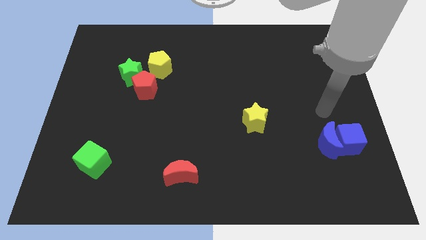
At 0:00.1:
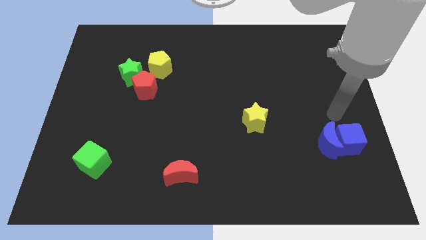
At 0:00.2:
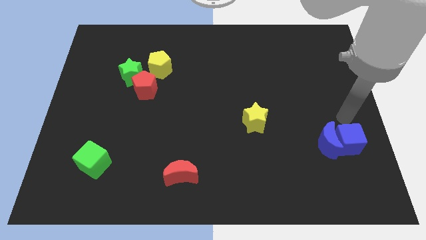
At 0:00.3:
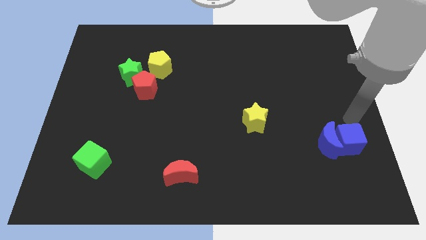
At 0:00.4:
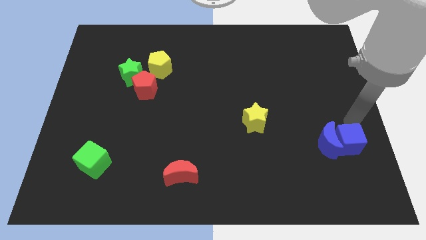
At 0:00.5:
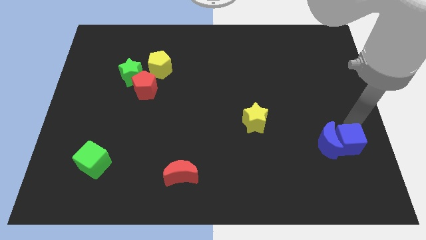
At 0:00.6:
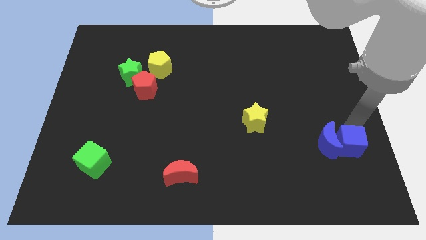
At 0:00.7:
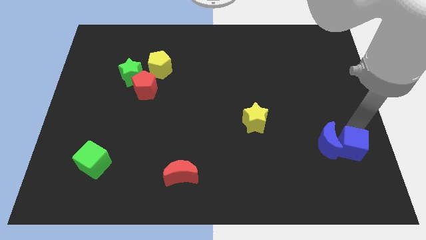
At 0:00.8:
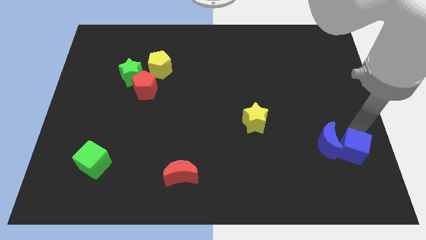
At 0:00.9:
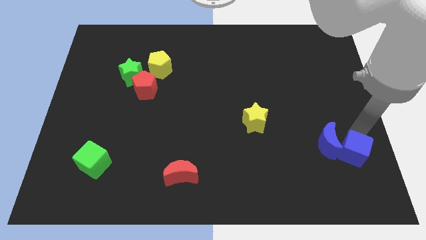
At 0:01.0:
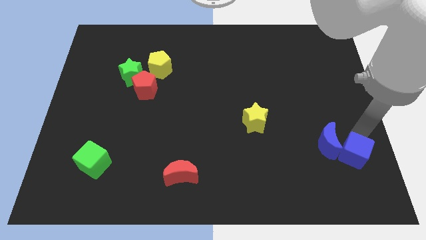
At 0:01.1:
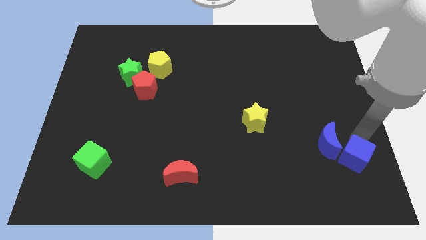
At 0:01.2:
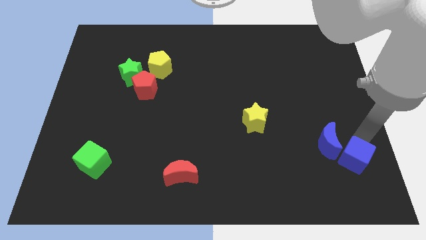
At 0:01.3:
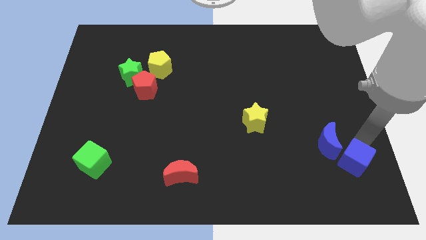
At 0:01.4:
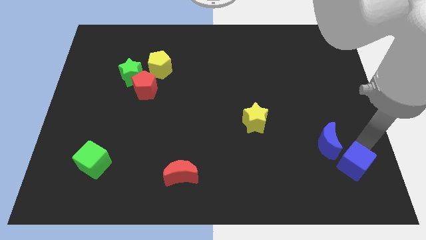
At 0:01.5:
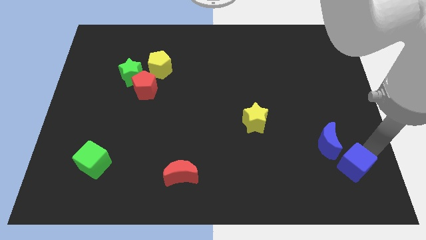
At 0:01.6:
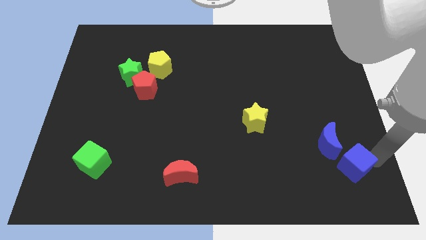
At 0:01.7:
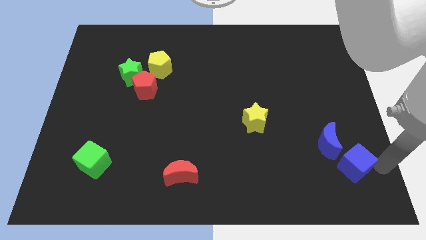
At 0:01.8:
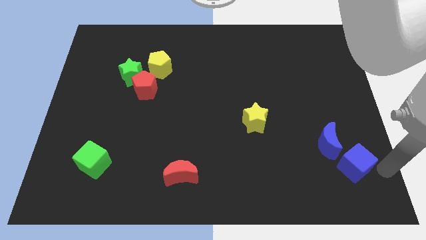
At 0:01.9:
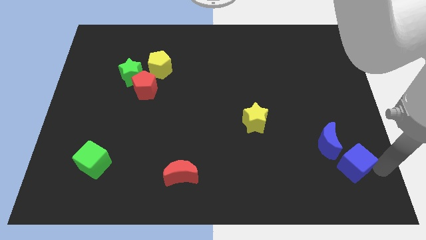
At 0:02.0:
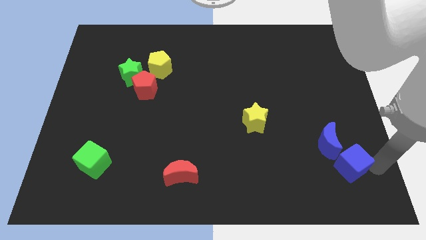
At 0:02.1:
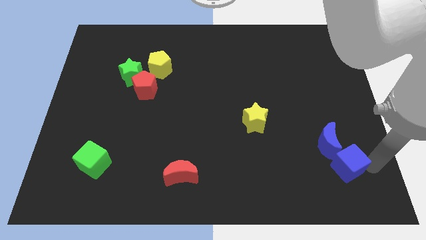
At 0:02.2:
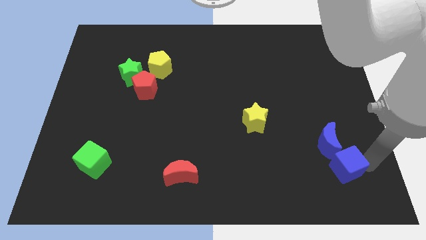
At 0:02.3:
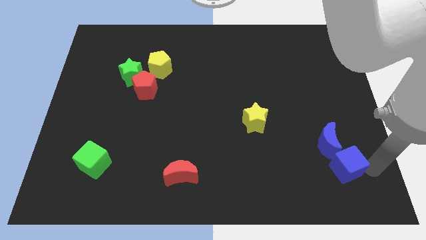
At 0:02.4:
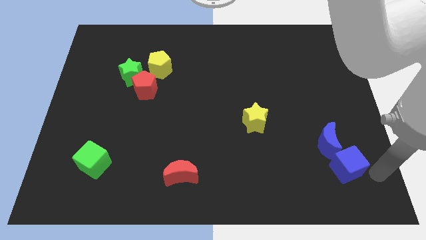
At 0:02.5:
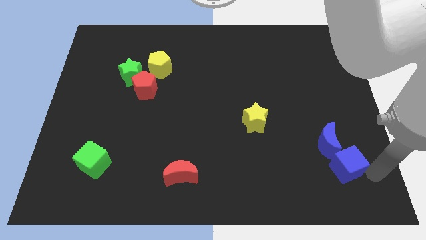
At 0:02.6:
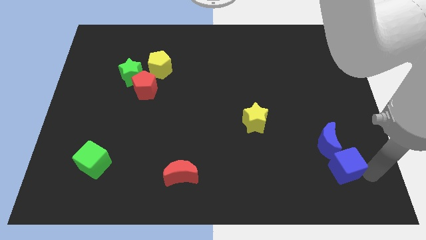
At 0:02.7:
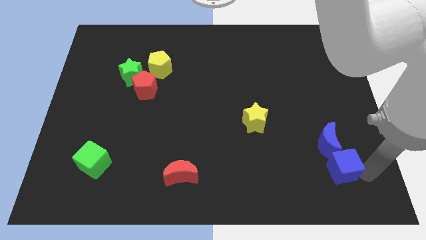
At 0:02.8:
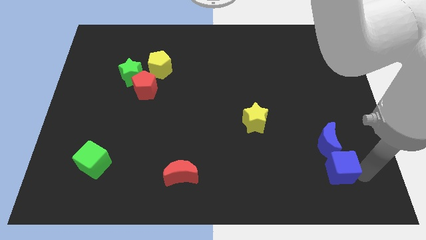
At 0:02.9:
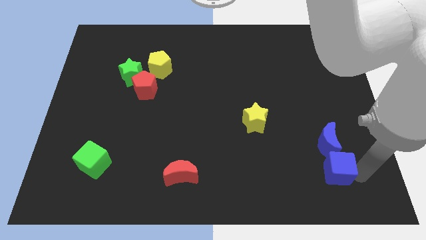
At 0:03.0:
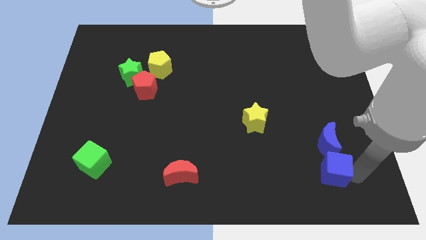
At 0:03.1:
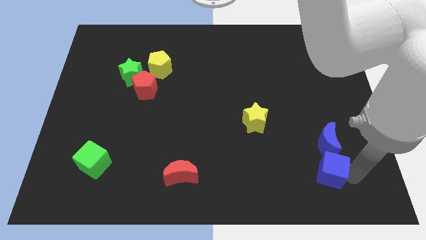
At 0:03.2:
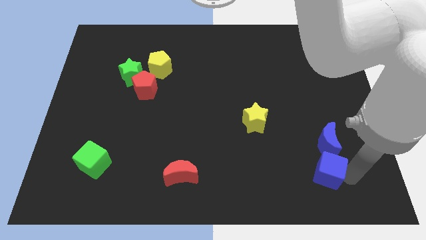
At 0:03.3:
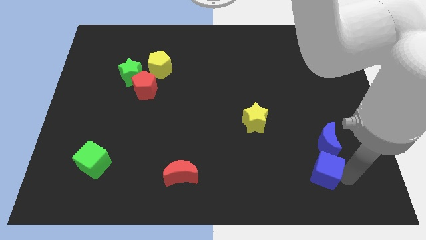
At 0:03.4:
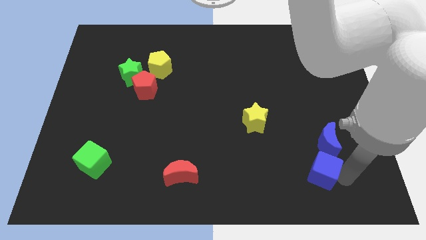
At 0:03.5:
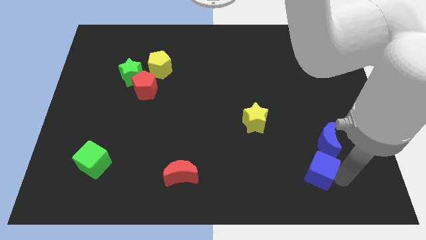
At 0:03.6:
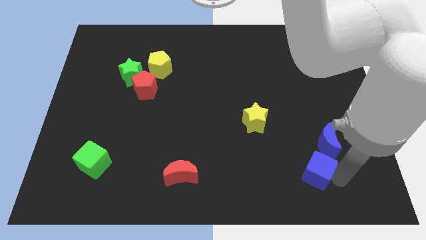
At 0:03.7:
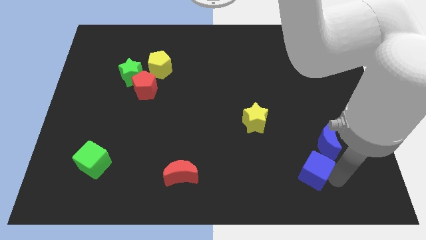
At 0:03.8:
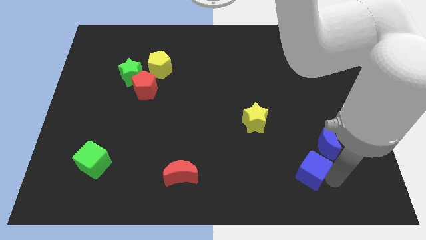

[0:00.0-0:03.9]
slightly push the blue cube to the left

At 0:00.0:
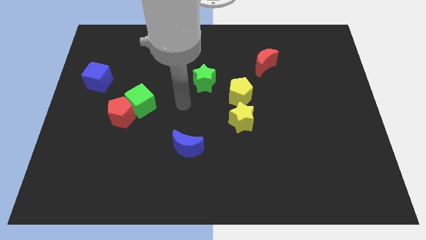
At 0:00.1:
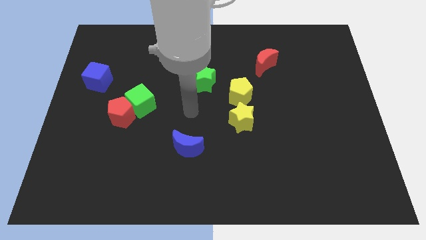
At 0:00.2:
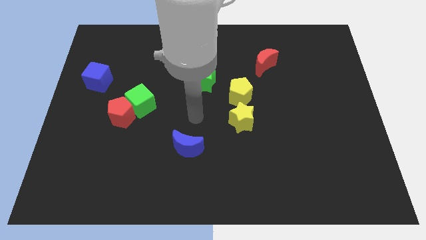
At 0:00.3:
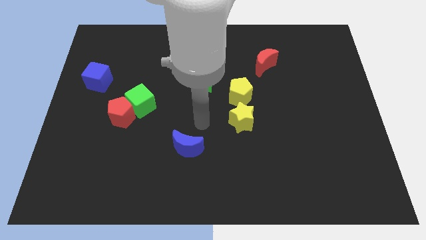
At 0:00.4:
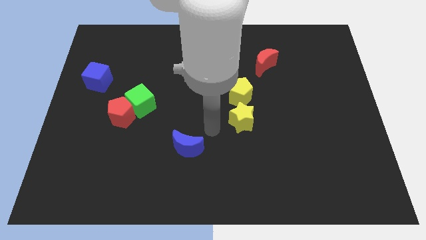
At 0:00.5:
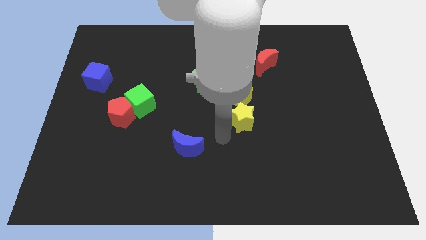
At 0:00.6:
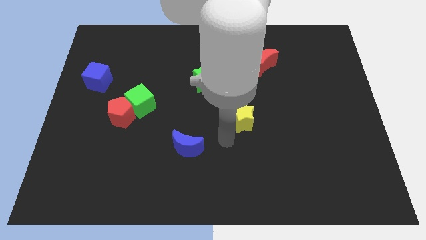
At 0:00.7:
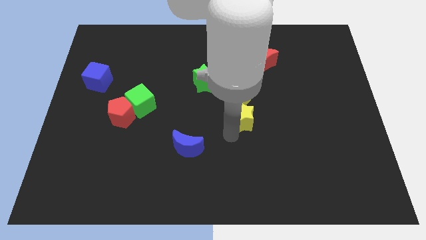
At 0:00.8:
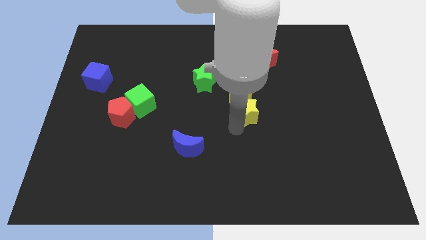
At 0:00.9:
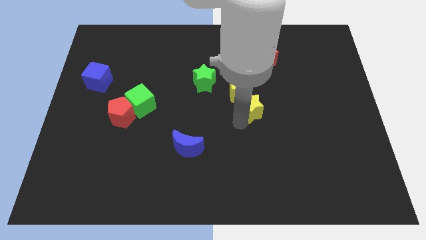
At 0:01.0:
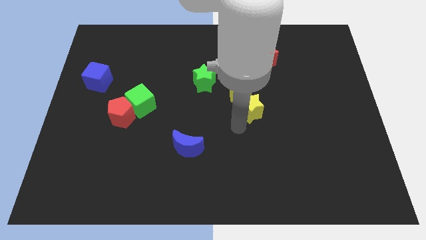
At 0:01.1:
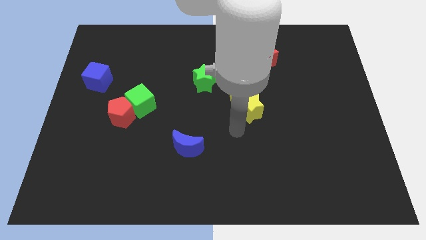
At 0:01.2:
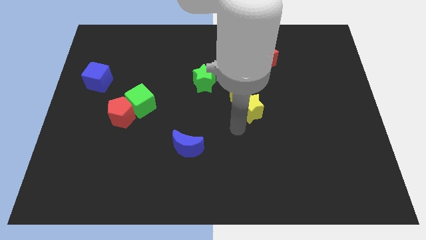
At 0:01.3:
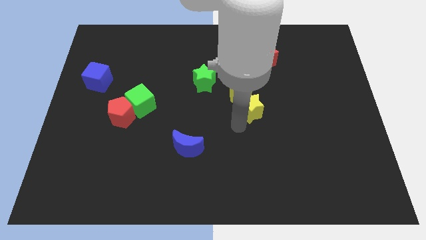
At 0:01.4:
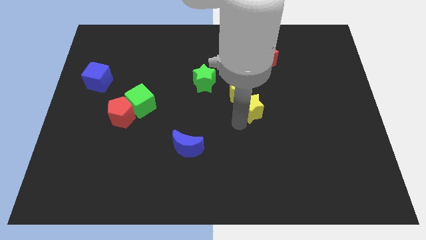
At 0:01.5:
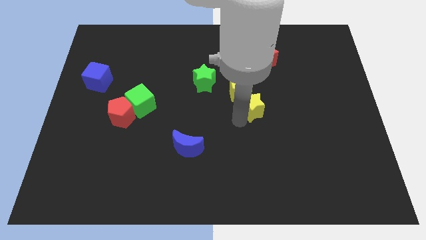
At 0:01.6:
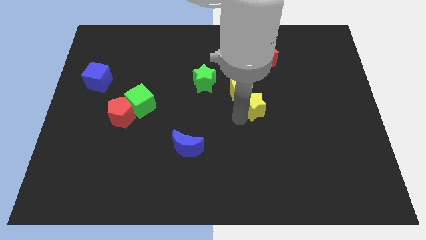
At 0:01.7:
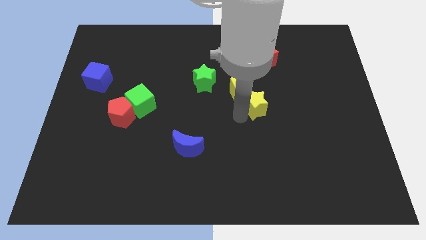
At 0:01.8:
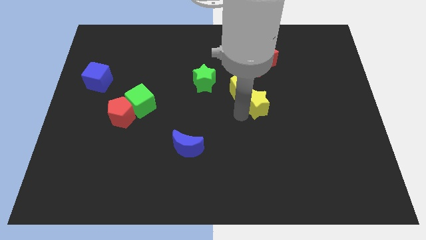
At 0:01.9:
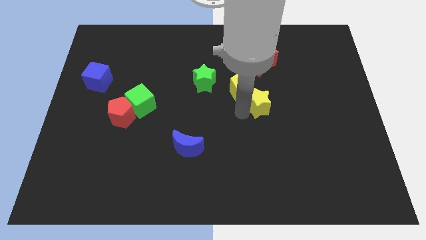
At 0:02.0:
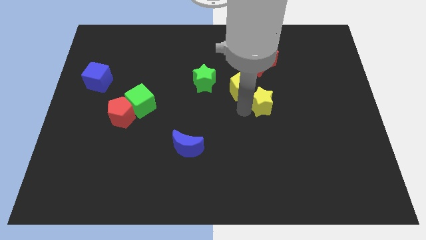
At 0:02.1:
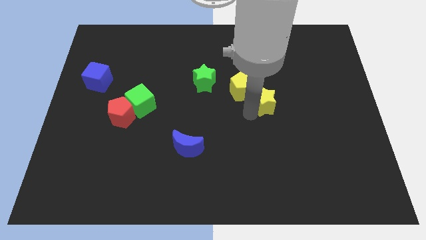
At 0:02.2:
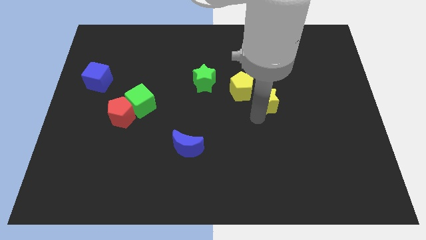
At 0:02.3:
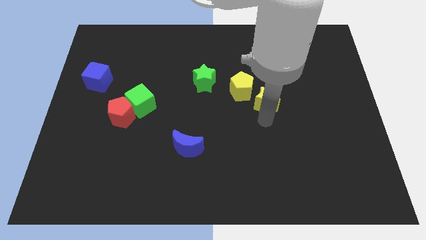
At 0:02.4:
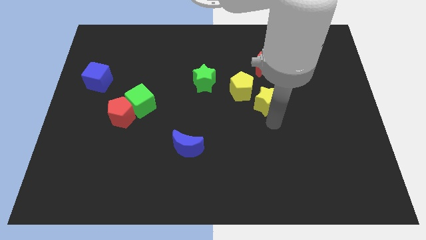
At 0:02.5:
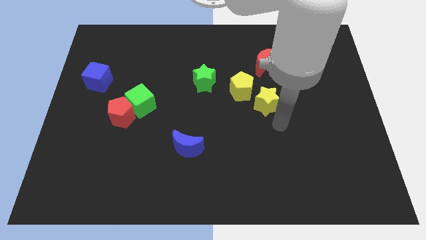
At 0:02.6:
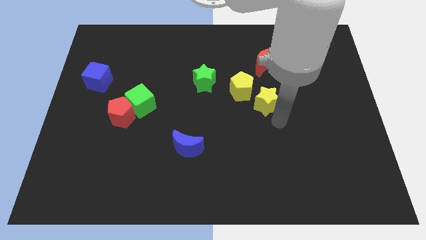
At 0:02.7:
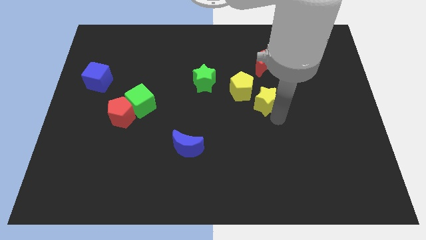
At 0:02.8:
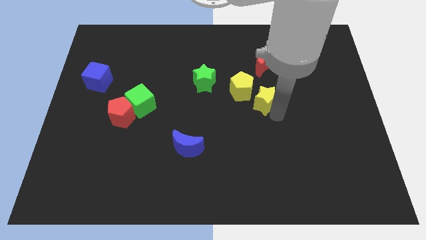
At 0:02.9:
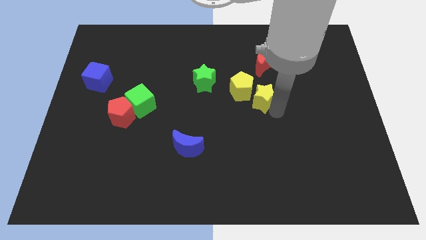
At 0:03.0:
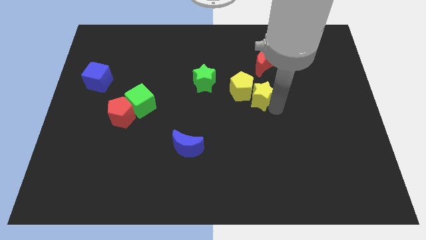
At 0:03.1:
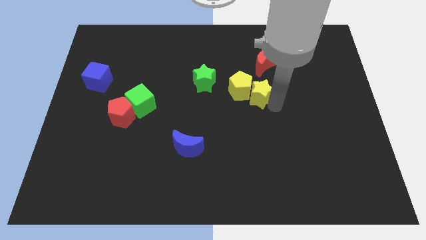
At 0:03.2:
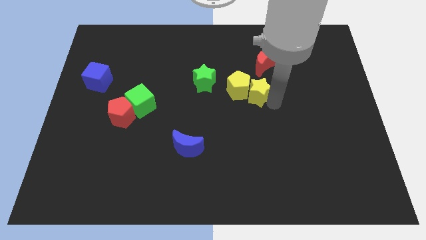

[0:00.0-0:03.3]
slightly slide the yellow star up

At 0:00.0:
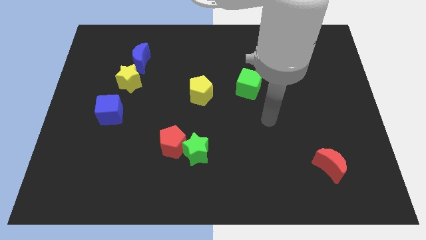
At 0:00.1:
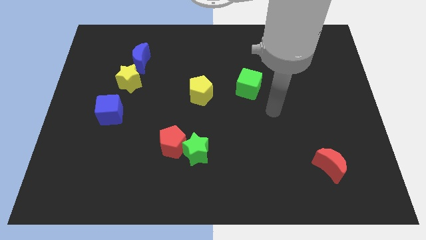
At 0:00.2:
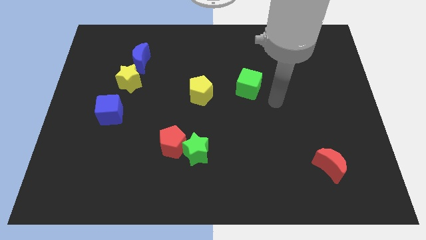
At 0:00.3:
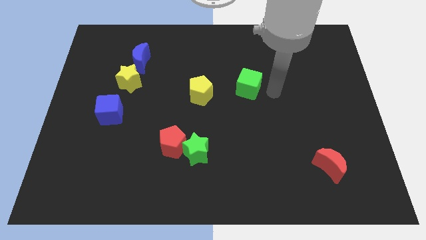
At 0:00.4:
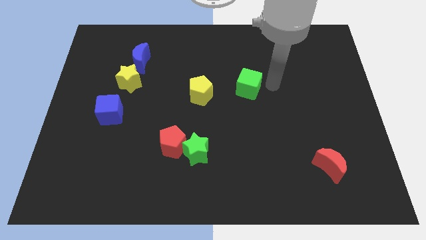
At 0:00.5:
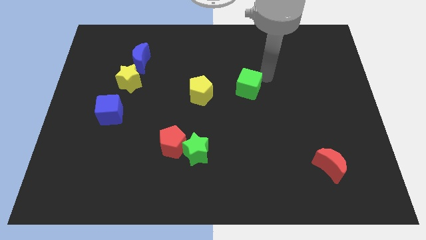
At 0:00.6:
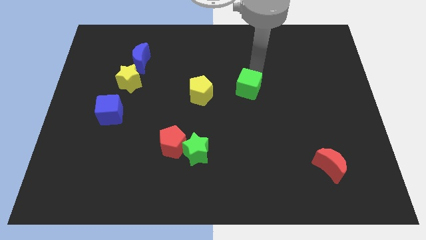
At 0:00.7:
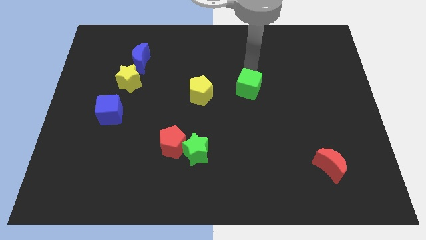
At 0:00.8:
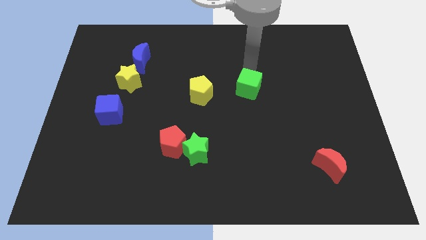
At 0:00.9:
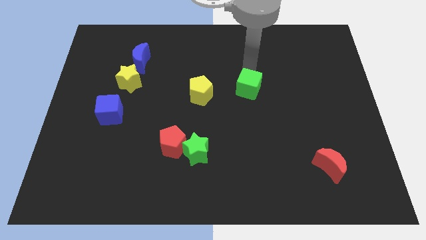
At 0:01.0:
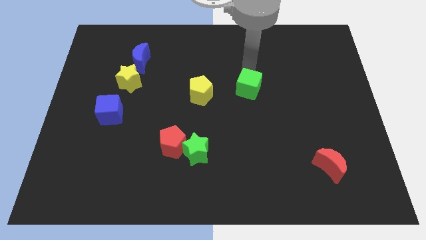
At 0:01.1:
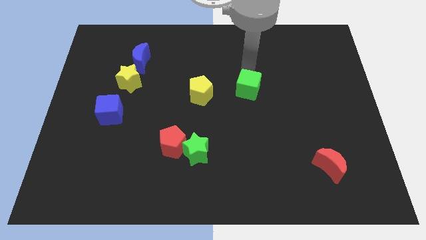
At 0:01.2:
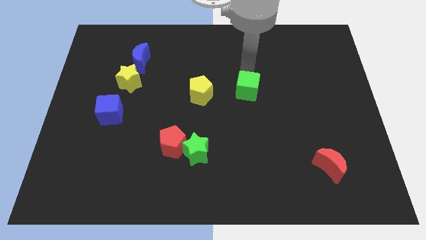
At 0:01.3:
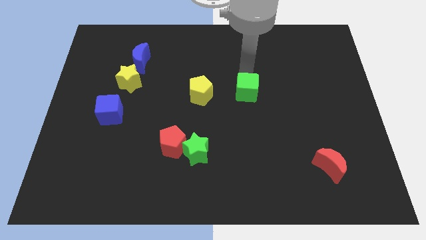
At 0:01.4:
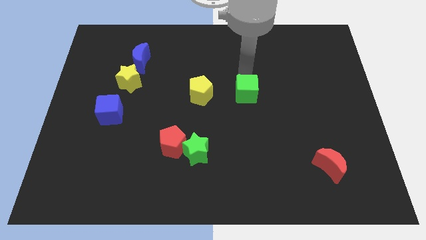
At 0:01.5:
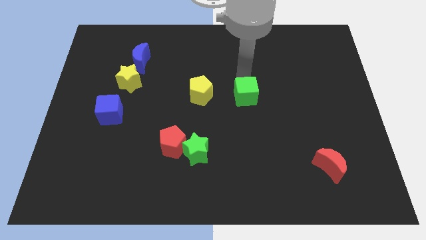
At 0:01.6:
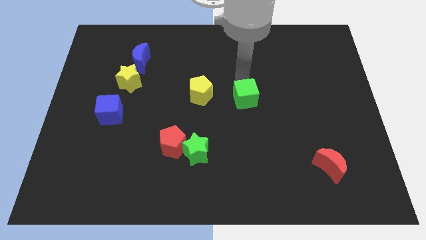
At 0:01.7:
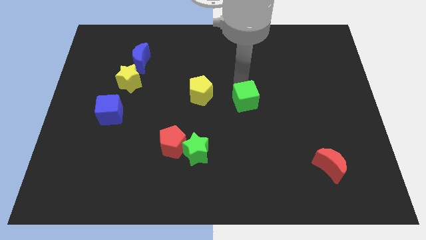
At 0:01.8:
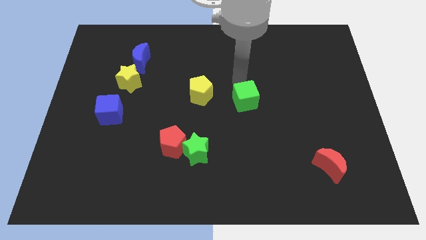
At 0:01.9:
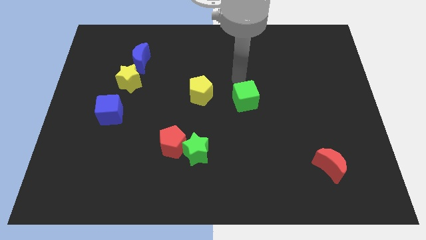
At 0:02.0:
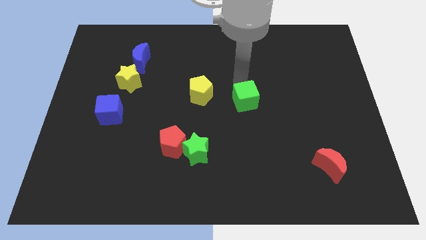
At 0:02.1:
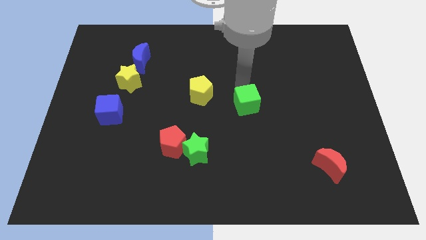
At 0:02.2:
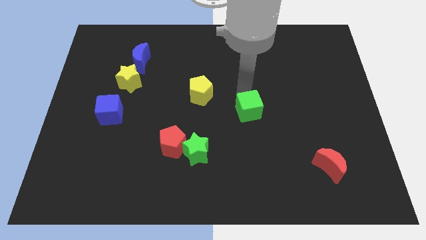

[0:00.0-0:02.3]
slightly move the green cube down
